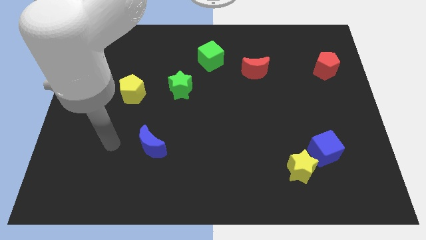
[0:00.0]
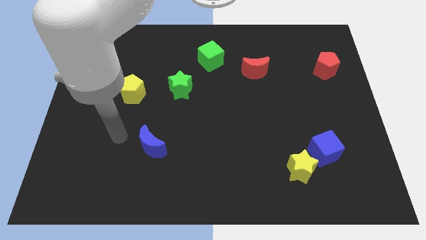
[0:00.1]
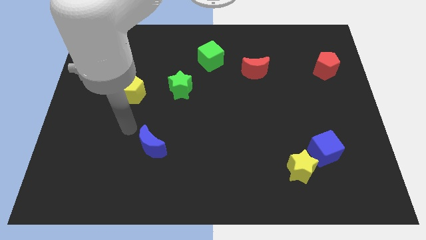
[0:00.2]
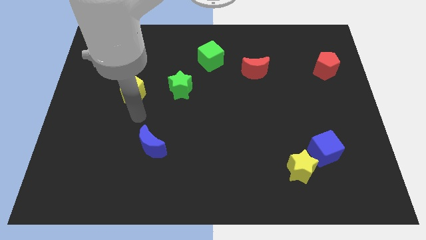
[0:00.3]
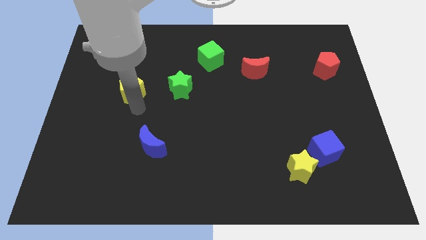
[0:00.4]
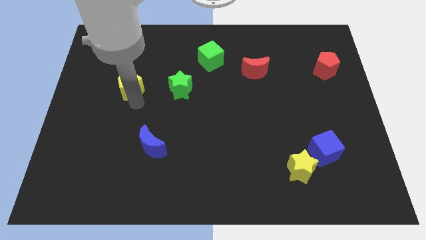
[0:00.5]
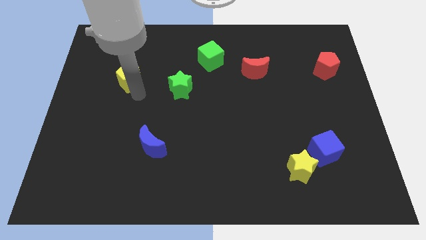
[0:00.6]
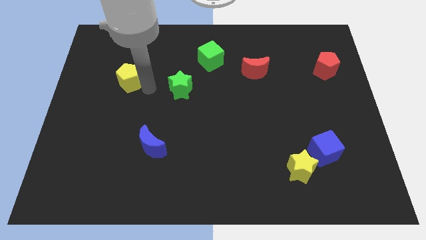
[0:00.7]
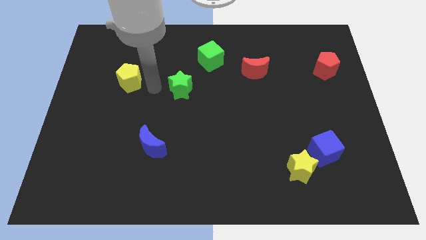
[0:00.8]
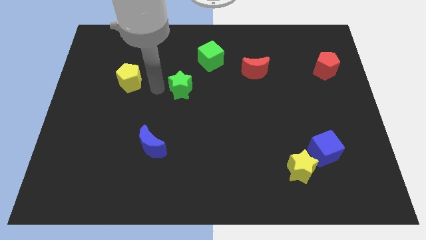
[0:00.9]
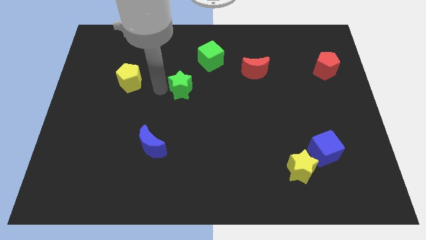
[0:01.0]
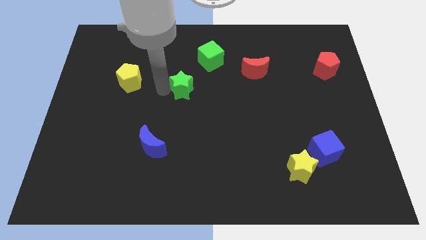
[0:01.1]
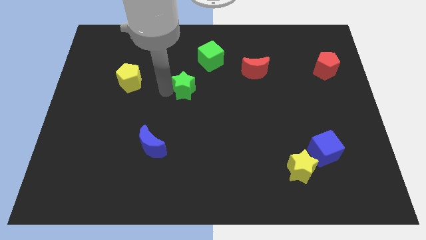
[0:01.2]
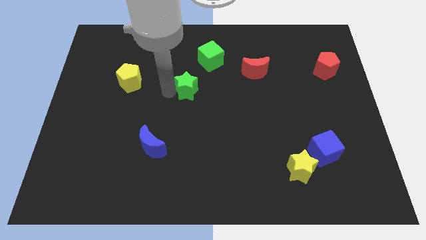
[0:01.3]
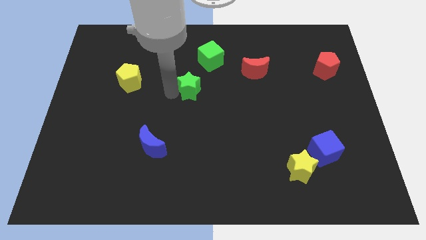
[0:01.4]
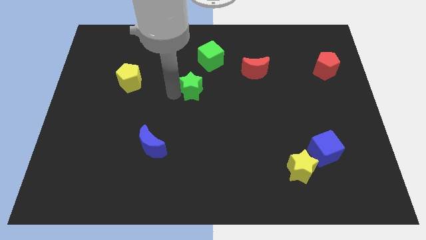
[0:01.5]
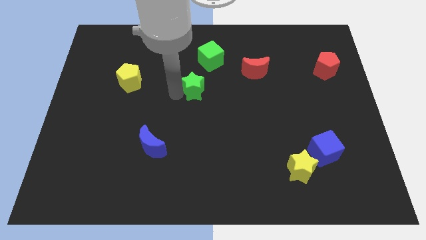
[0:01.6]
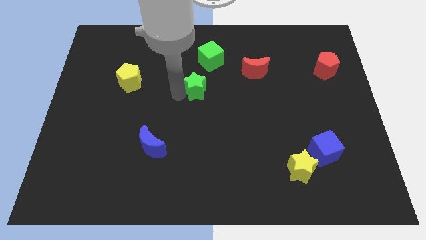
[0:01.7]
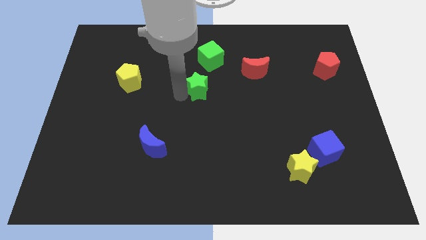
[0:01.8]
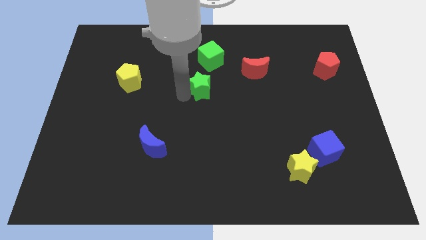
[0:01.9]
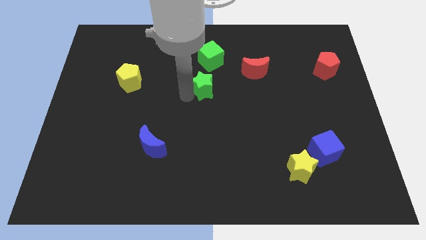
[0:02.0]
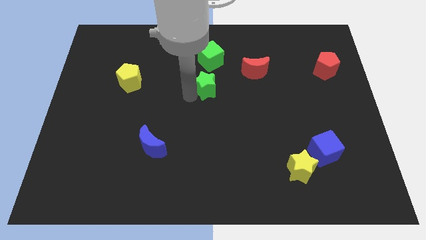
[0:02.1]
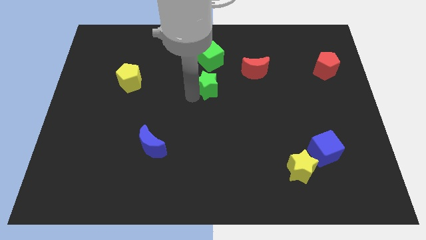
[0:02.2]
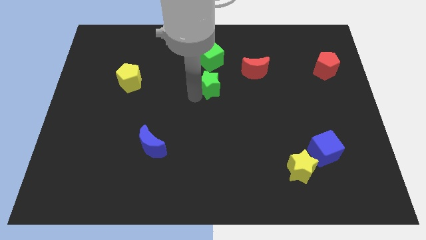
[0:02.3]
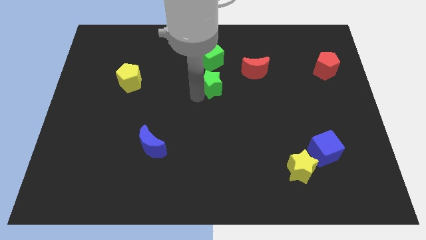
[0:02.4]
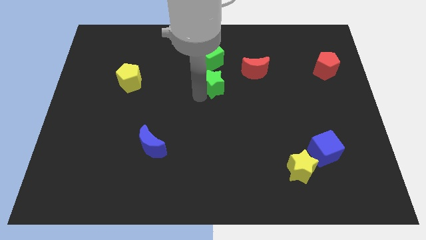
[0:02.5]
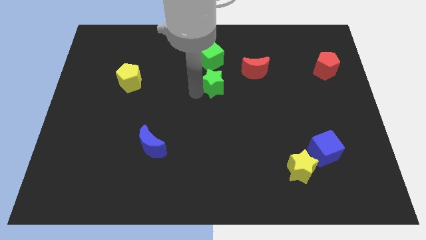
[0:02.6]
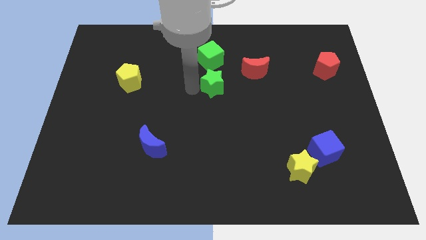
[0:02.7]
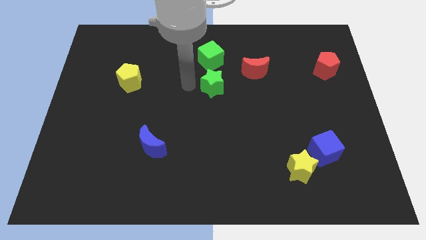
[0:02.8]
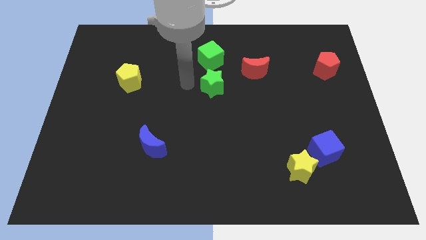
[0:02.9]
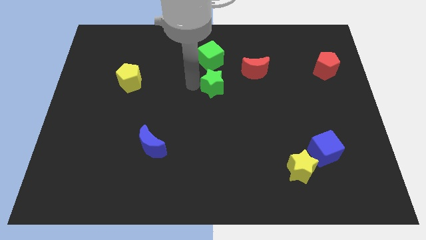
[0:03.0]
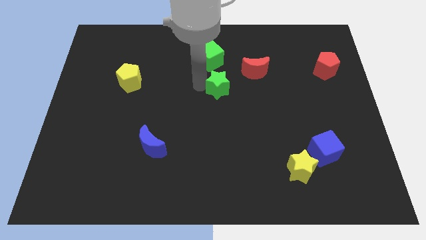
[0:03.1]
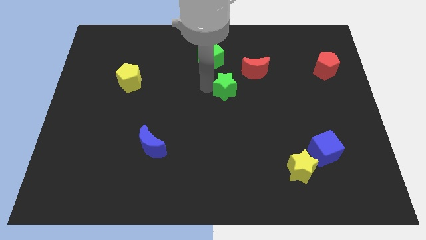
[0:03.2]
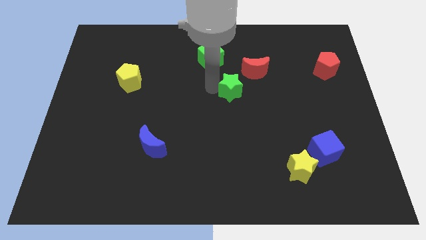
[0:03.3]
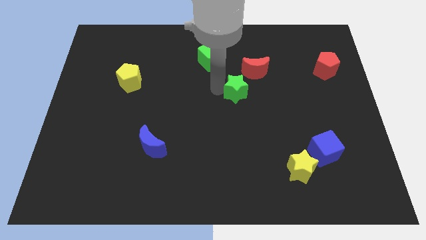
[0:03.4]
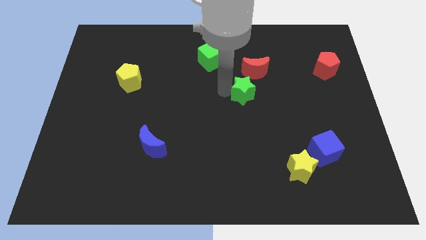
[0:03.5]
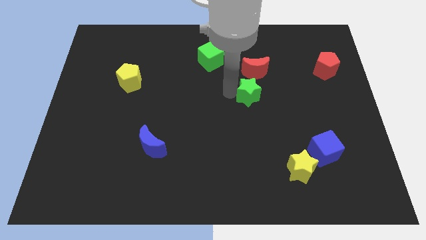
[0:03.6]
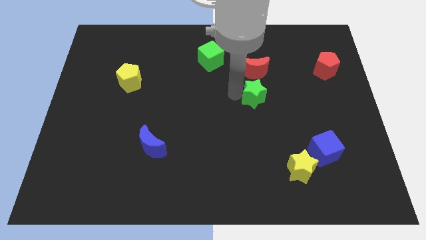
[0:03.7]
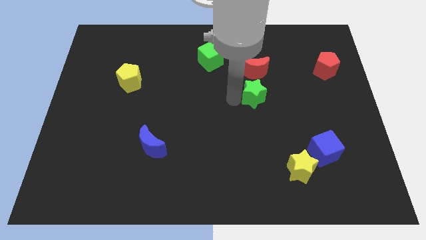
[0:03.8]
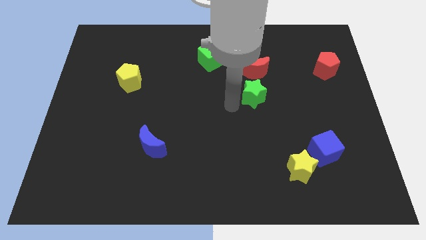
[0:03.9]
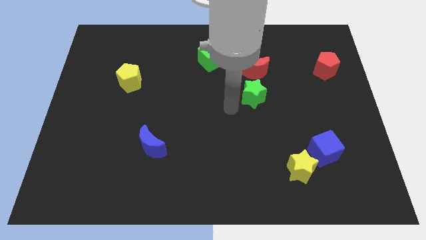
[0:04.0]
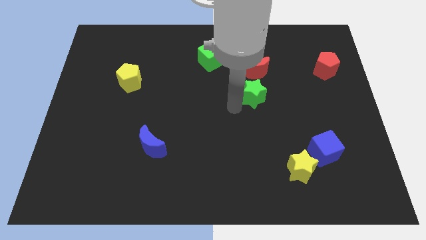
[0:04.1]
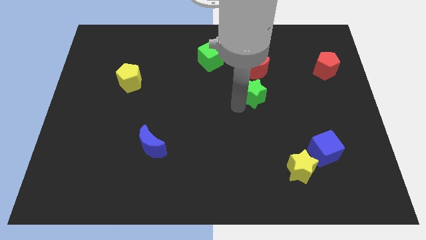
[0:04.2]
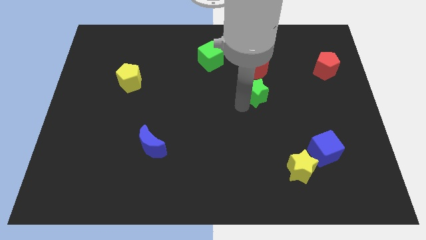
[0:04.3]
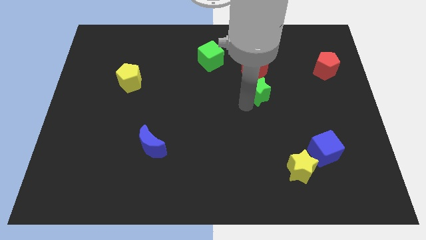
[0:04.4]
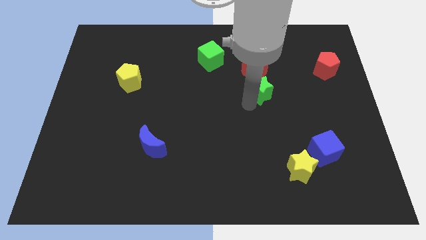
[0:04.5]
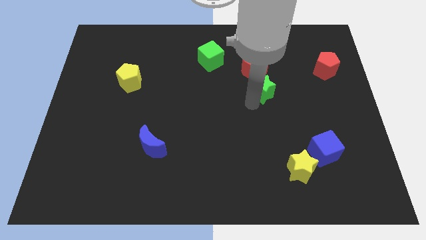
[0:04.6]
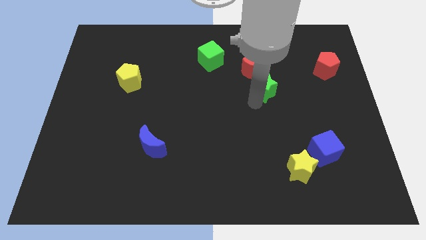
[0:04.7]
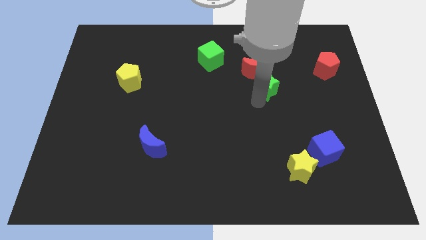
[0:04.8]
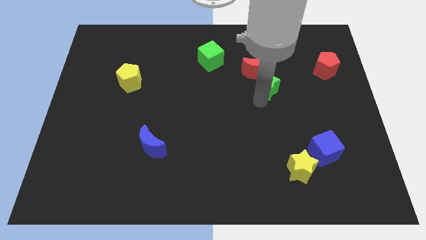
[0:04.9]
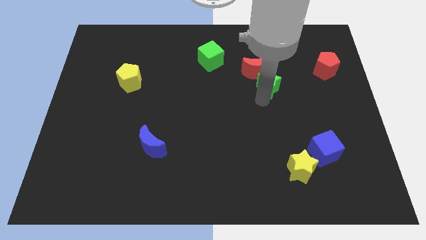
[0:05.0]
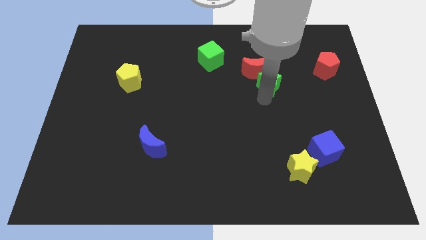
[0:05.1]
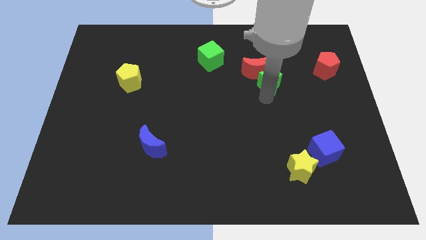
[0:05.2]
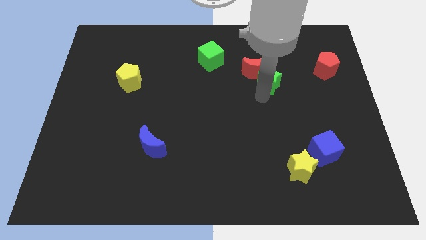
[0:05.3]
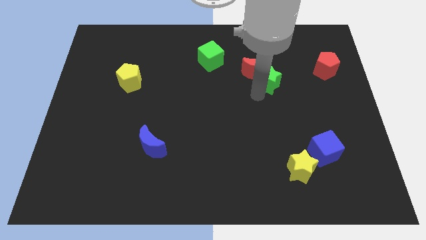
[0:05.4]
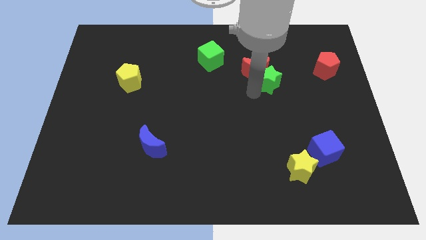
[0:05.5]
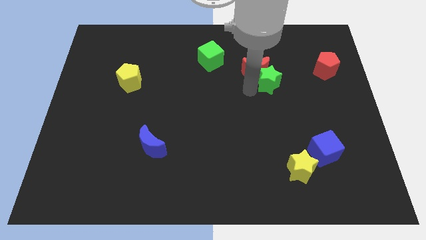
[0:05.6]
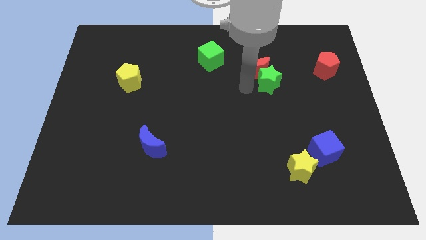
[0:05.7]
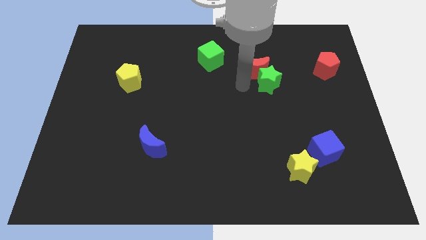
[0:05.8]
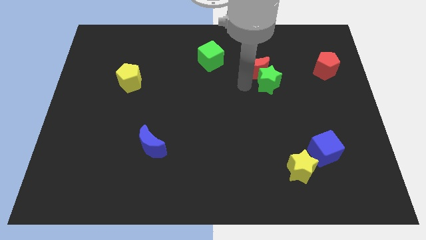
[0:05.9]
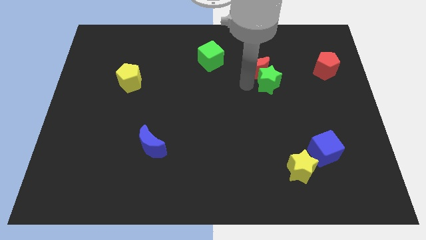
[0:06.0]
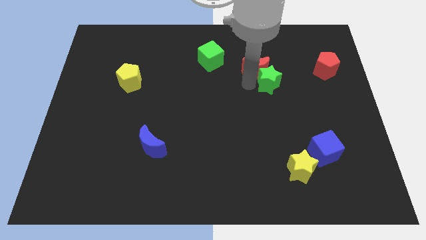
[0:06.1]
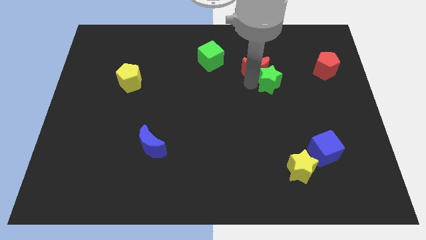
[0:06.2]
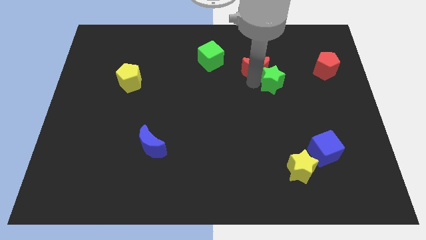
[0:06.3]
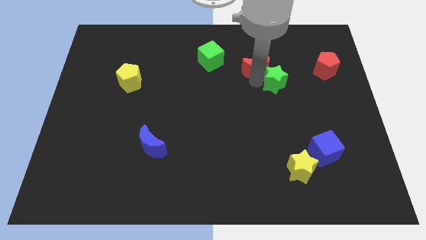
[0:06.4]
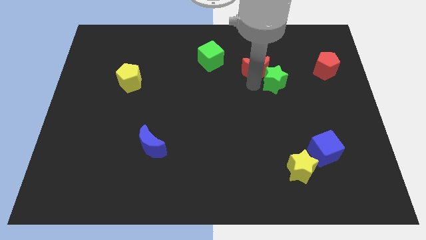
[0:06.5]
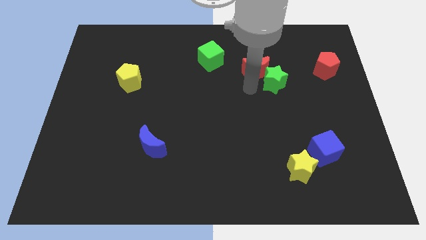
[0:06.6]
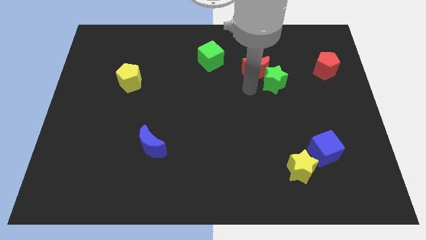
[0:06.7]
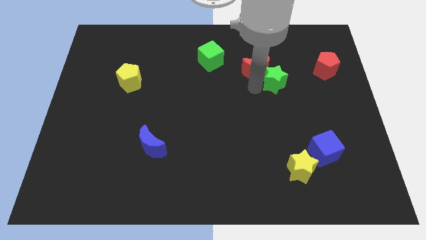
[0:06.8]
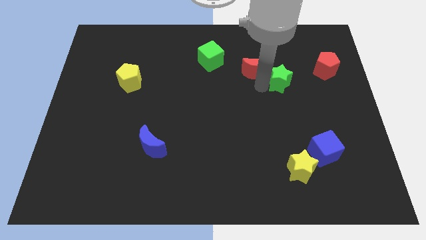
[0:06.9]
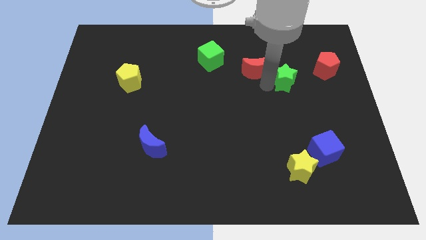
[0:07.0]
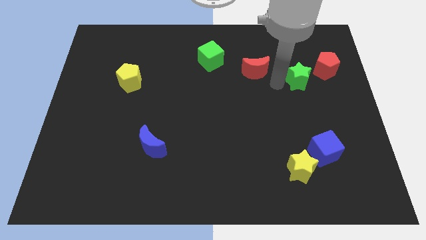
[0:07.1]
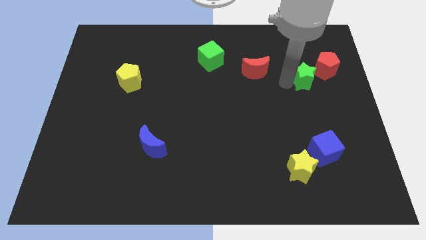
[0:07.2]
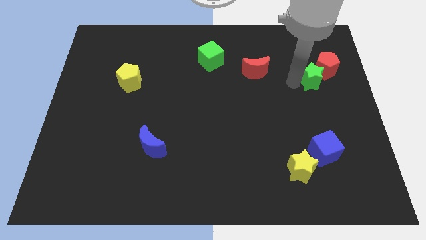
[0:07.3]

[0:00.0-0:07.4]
put the green star to the red pentagon

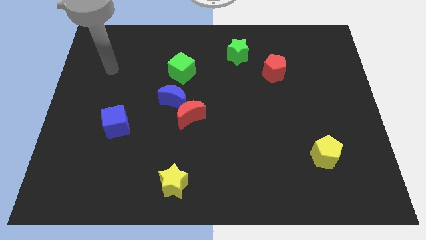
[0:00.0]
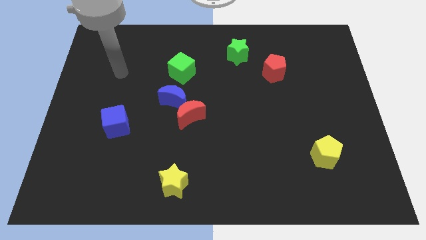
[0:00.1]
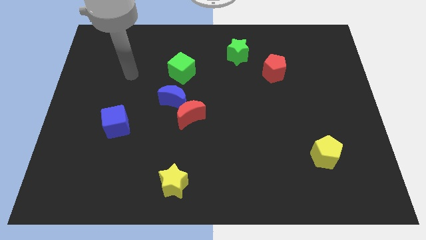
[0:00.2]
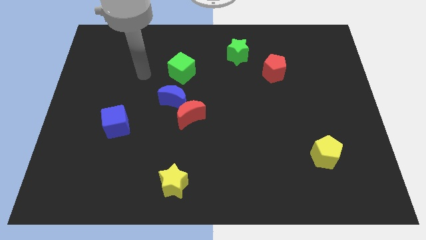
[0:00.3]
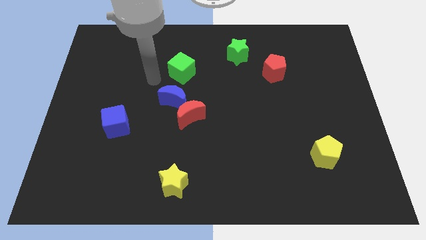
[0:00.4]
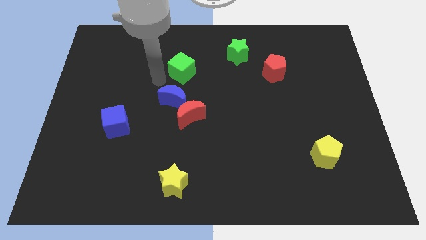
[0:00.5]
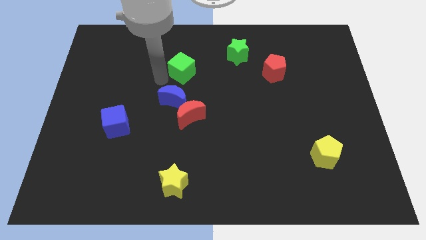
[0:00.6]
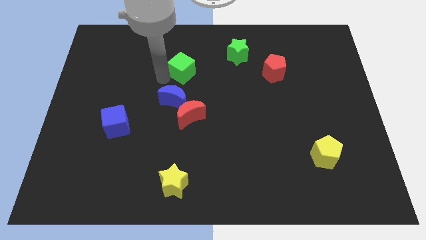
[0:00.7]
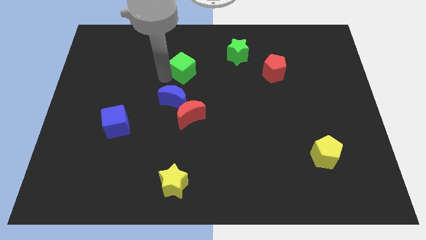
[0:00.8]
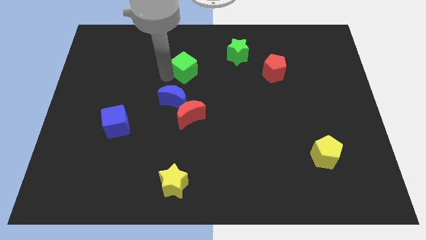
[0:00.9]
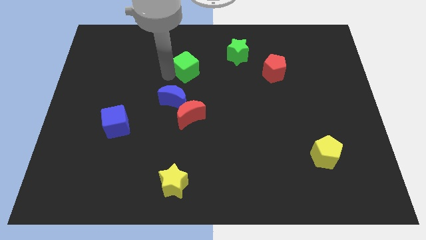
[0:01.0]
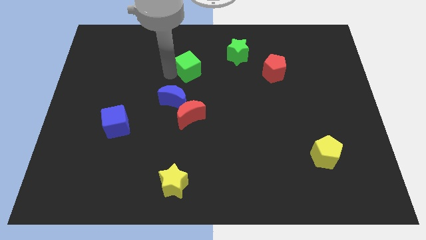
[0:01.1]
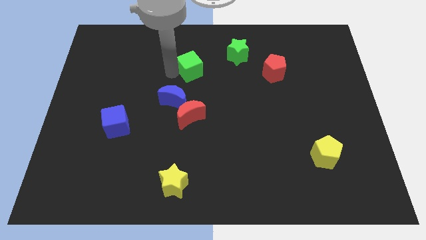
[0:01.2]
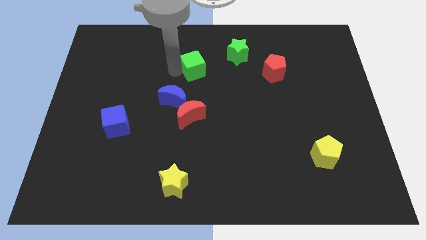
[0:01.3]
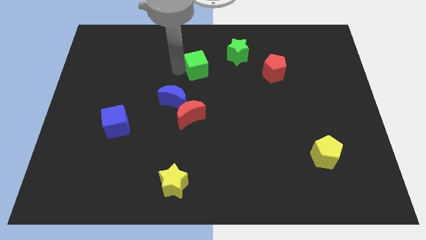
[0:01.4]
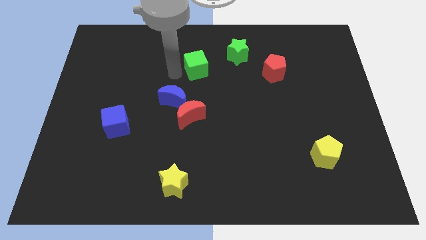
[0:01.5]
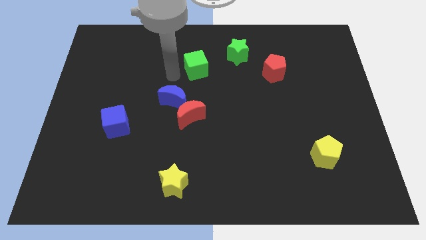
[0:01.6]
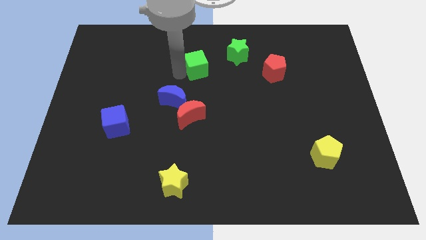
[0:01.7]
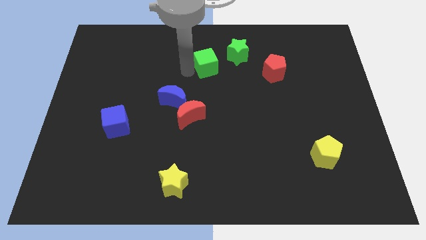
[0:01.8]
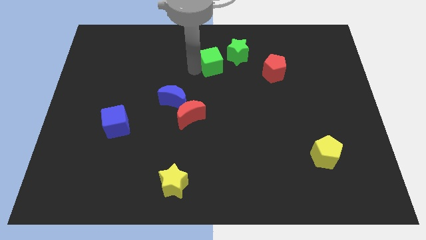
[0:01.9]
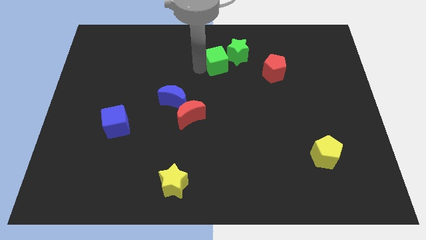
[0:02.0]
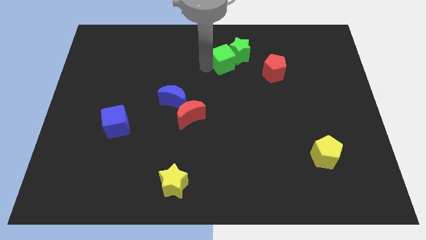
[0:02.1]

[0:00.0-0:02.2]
slide the green cube close to the green star
